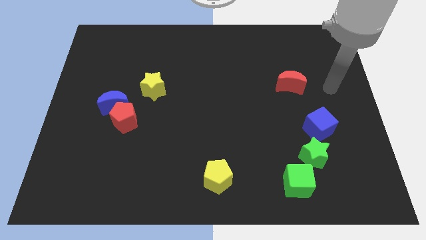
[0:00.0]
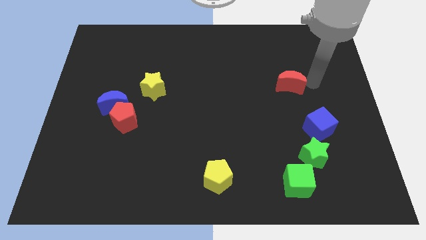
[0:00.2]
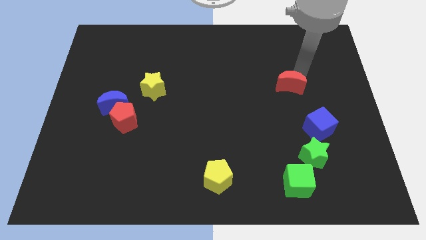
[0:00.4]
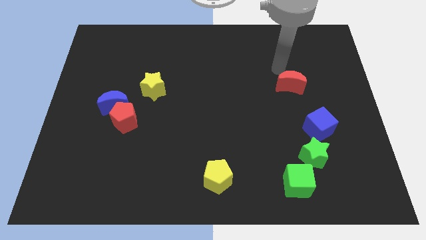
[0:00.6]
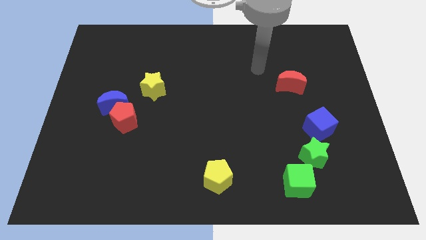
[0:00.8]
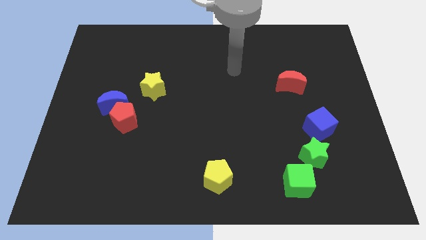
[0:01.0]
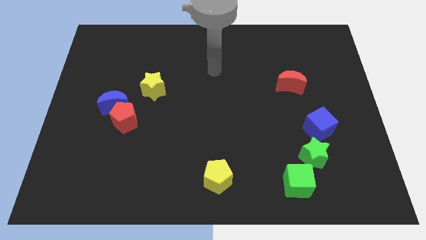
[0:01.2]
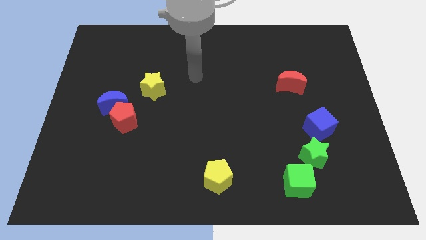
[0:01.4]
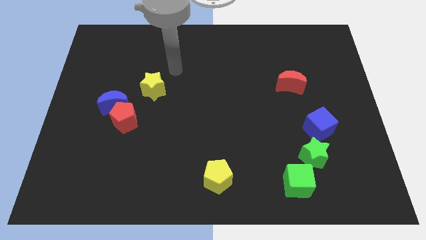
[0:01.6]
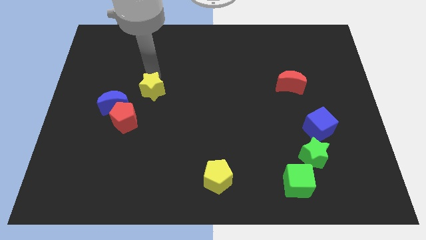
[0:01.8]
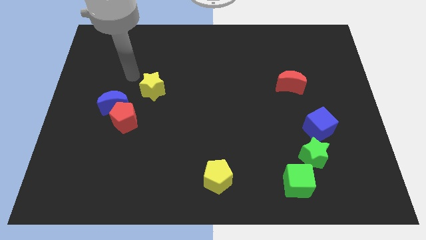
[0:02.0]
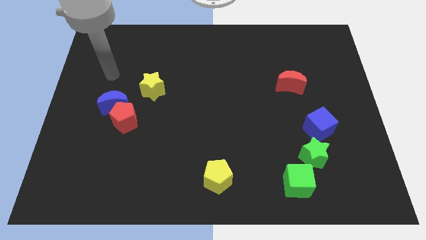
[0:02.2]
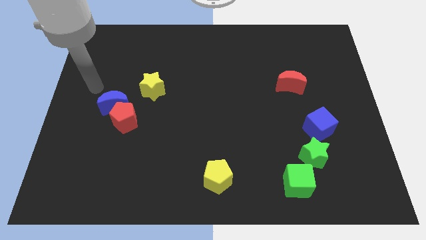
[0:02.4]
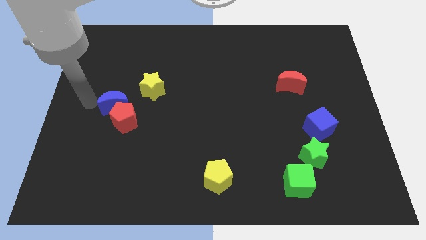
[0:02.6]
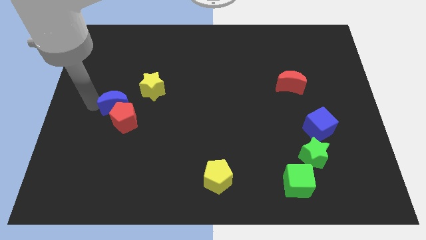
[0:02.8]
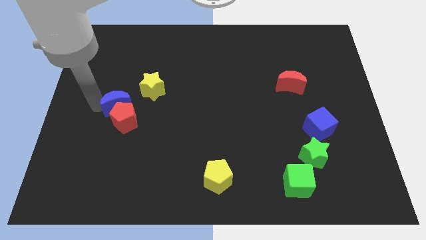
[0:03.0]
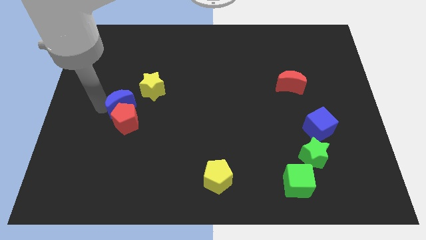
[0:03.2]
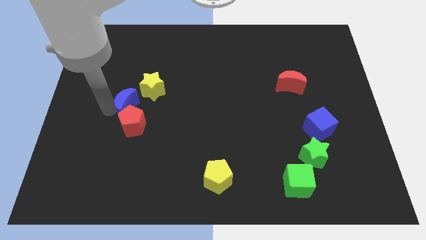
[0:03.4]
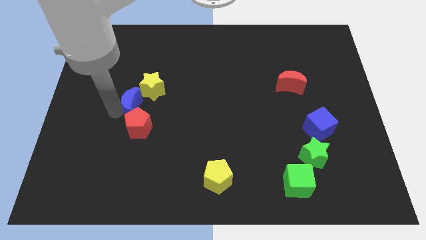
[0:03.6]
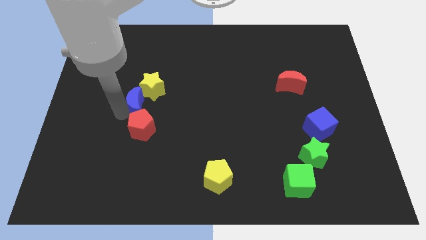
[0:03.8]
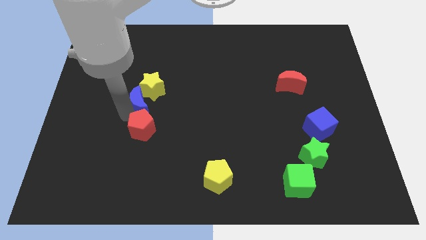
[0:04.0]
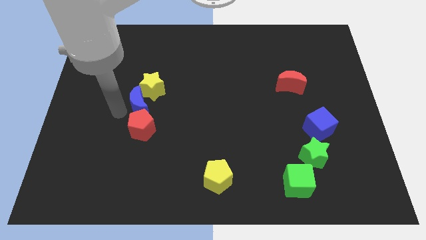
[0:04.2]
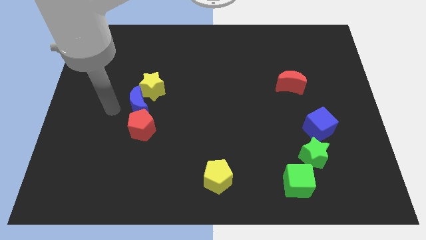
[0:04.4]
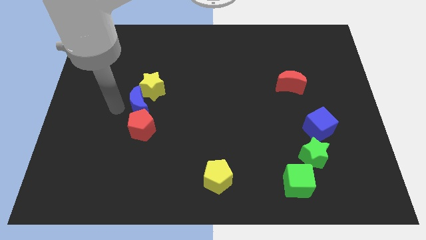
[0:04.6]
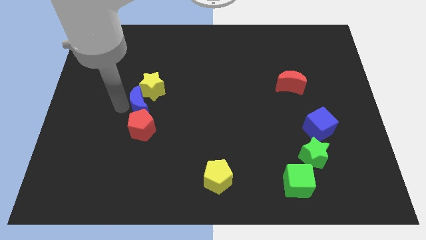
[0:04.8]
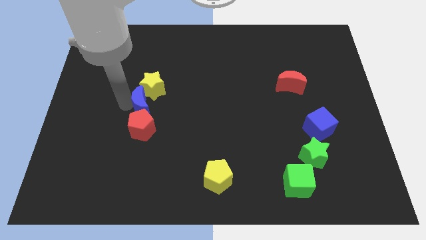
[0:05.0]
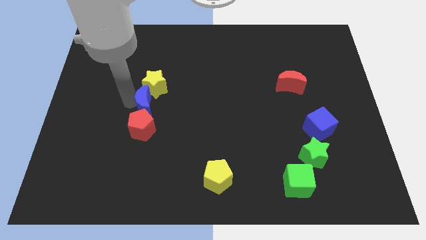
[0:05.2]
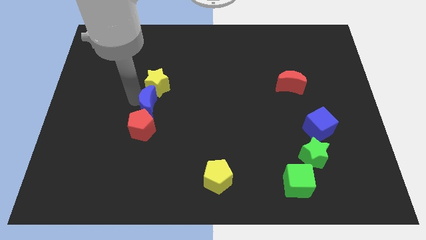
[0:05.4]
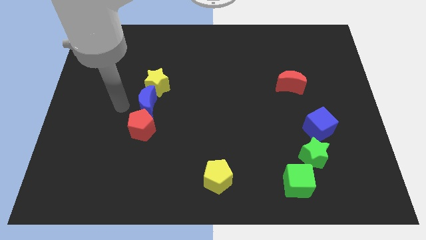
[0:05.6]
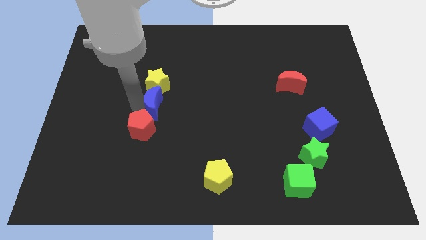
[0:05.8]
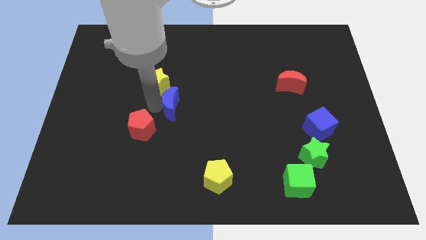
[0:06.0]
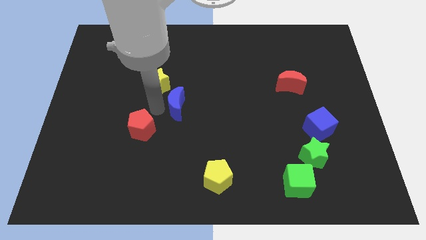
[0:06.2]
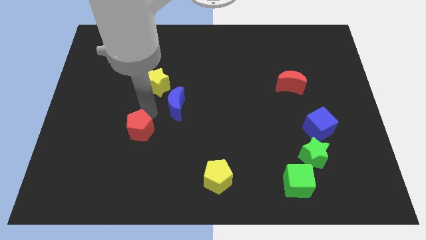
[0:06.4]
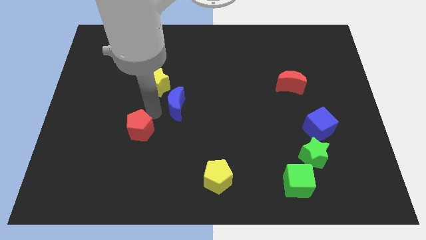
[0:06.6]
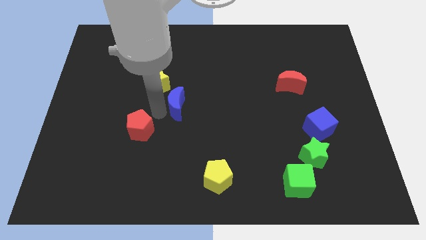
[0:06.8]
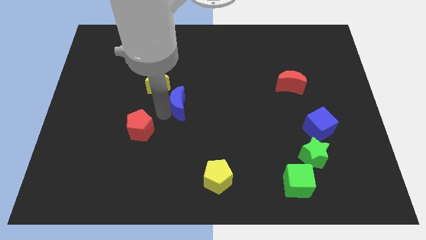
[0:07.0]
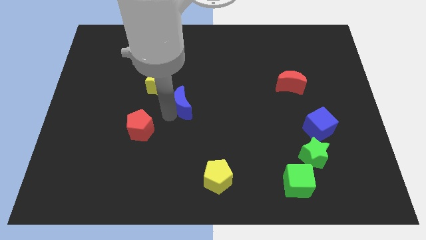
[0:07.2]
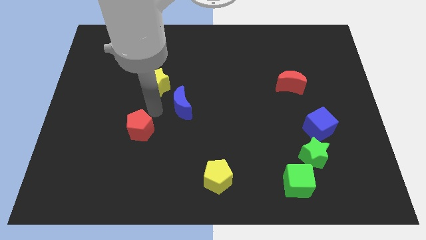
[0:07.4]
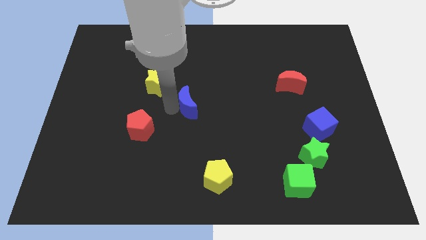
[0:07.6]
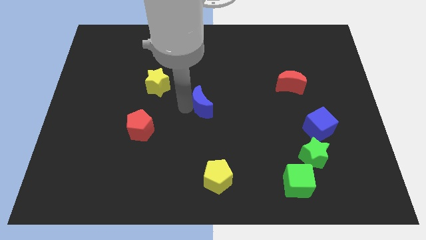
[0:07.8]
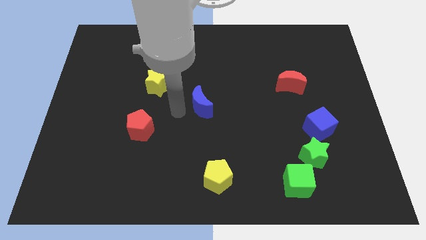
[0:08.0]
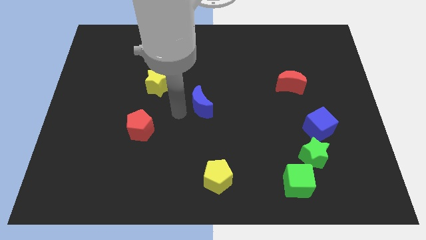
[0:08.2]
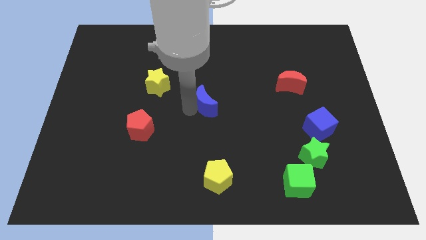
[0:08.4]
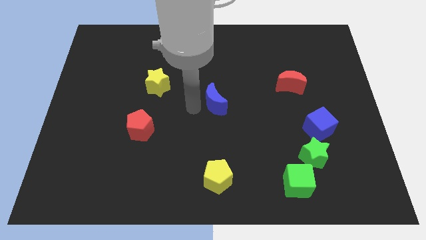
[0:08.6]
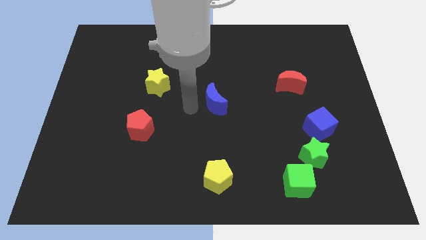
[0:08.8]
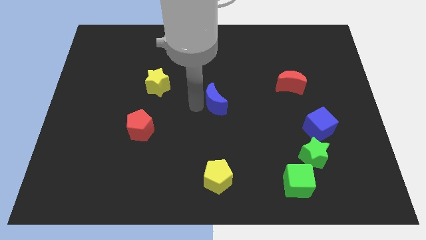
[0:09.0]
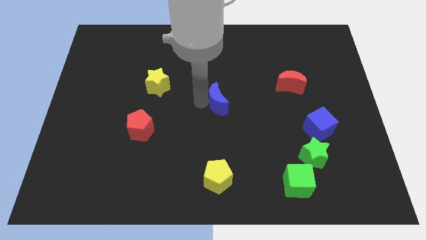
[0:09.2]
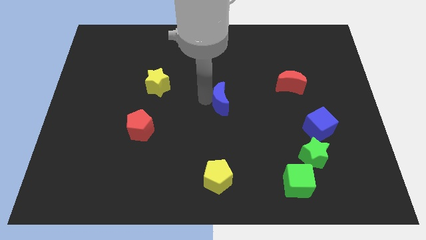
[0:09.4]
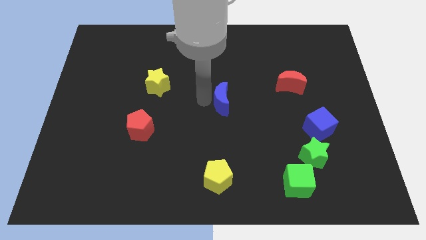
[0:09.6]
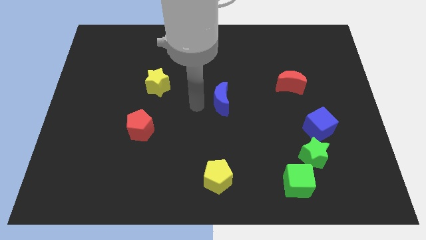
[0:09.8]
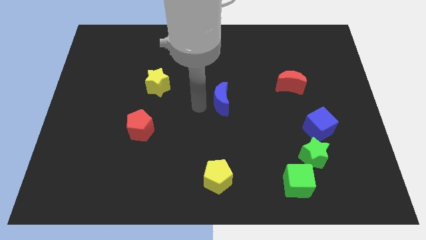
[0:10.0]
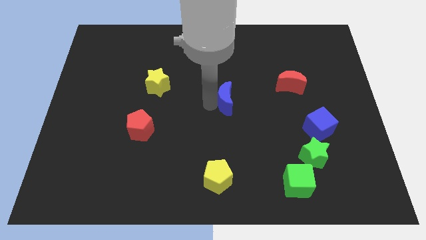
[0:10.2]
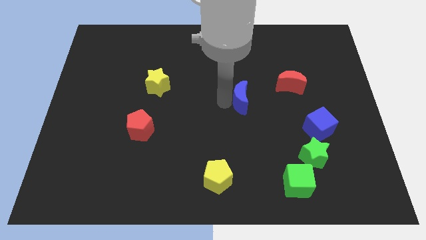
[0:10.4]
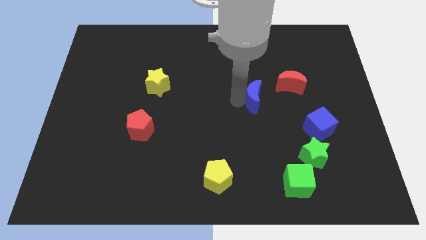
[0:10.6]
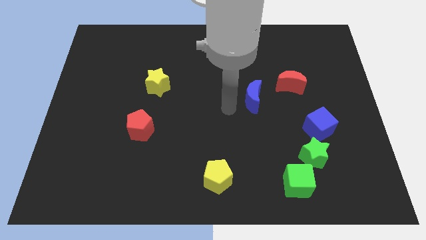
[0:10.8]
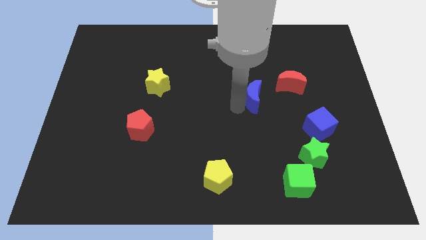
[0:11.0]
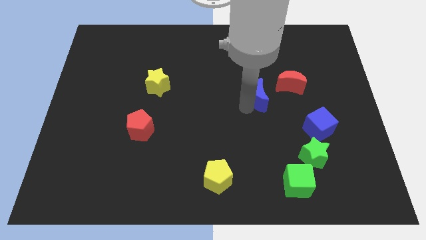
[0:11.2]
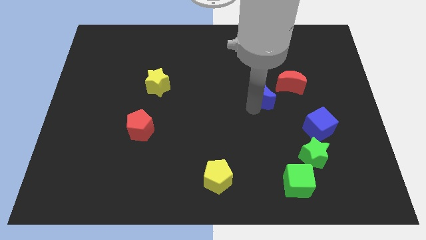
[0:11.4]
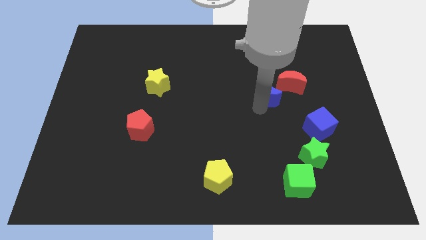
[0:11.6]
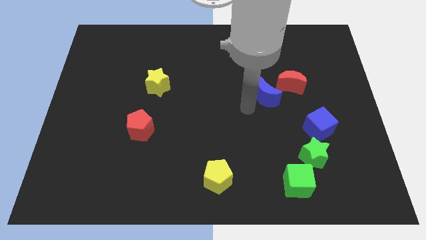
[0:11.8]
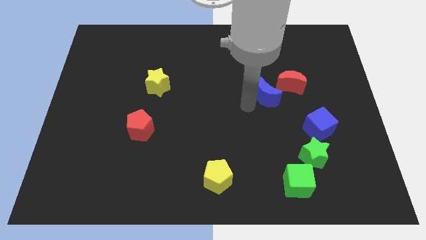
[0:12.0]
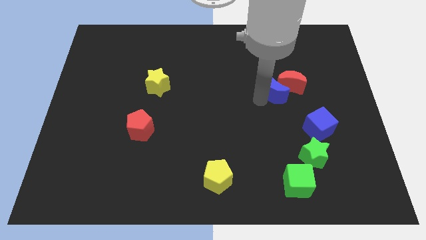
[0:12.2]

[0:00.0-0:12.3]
move the blue moon to the red moon
